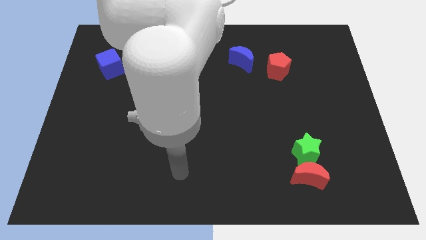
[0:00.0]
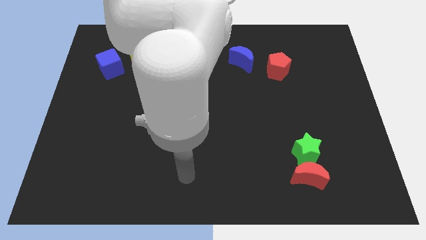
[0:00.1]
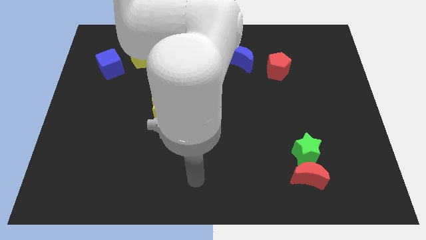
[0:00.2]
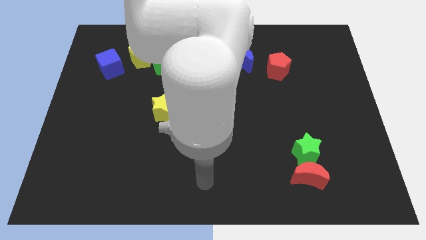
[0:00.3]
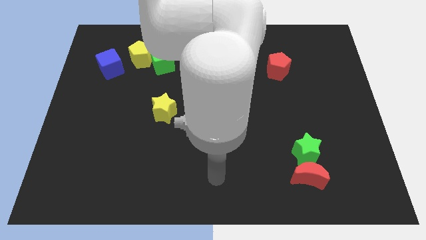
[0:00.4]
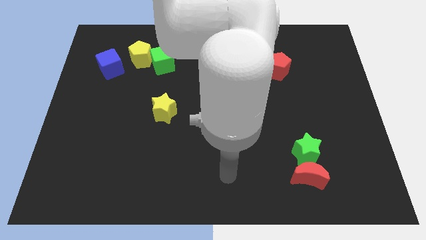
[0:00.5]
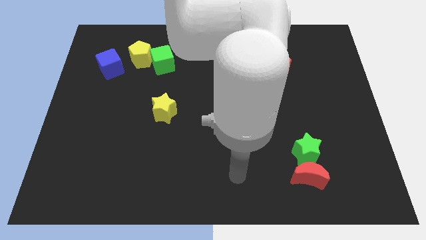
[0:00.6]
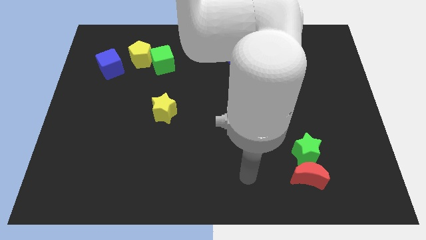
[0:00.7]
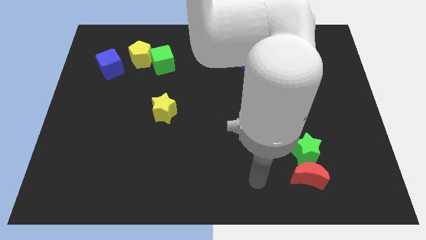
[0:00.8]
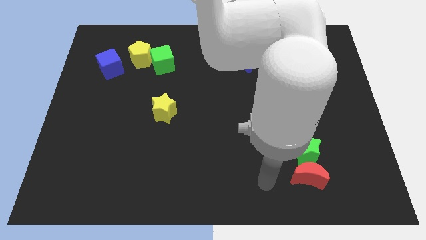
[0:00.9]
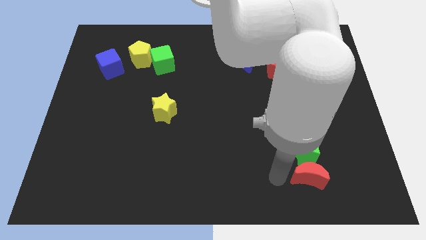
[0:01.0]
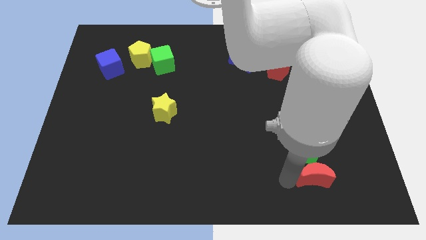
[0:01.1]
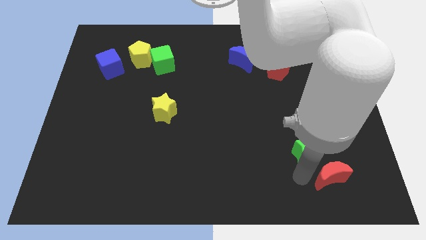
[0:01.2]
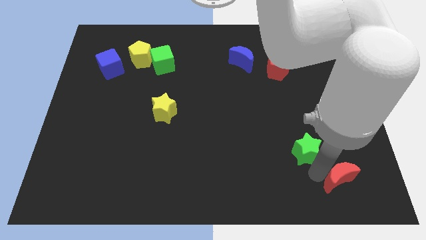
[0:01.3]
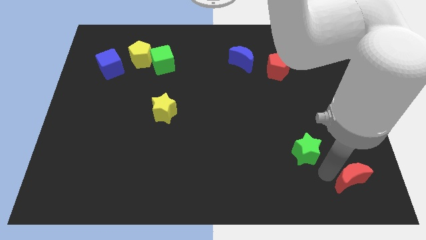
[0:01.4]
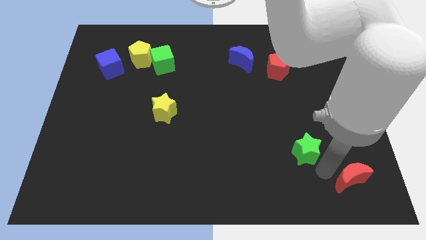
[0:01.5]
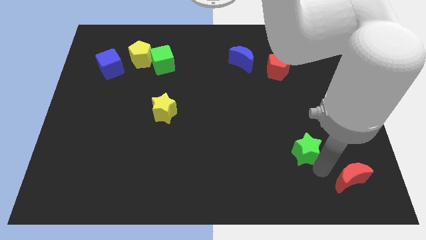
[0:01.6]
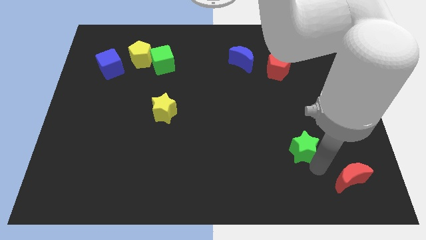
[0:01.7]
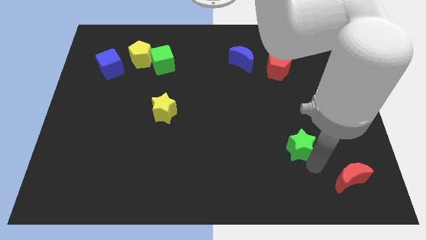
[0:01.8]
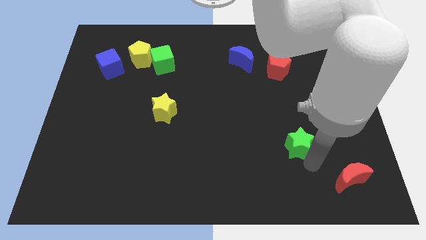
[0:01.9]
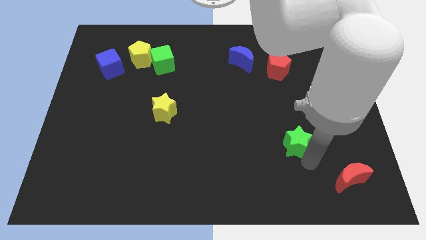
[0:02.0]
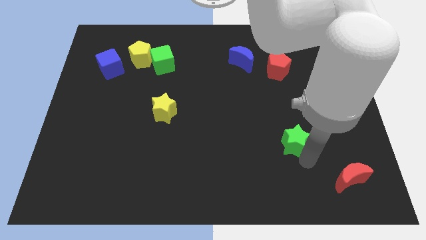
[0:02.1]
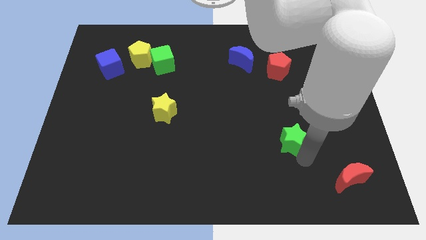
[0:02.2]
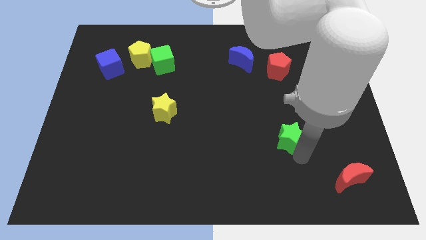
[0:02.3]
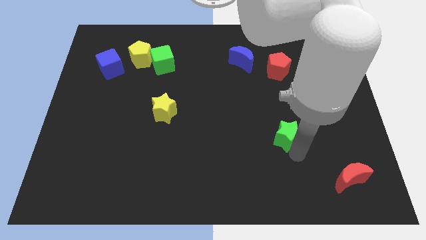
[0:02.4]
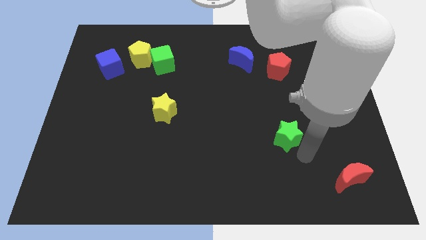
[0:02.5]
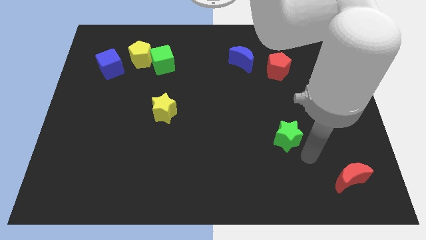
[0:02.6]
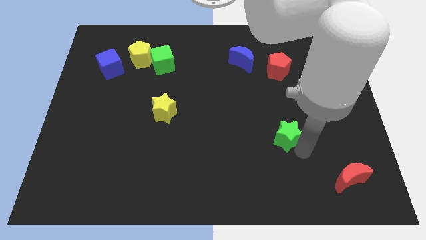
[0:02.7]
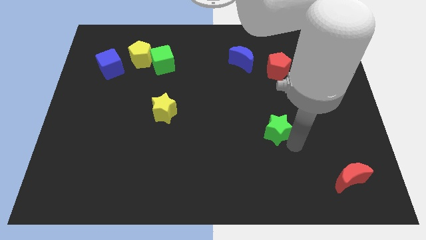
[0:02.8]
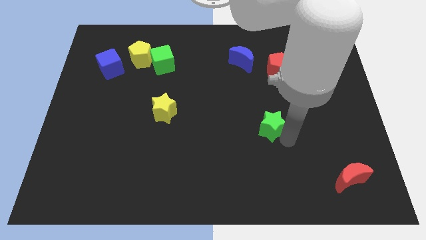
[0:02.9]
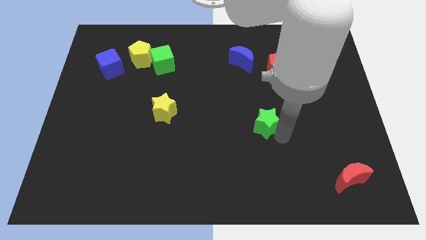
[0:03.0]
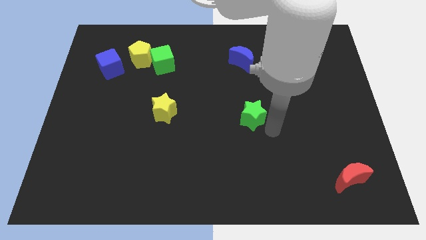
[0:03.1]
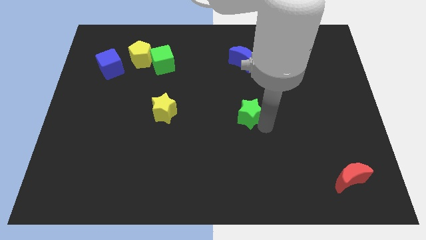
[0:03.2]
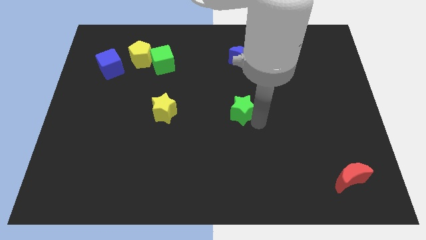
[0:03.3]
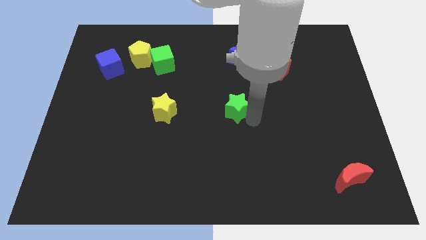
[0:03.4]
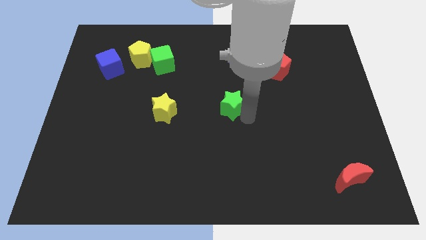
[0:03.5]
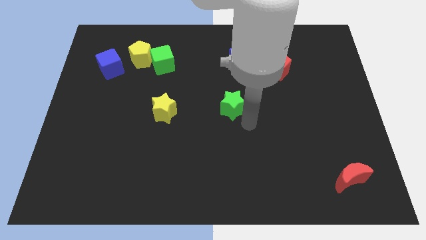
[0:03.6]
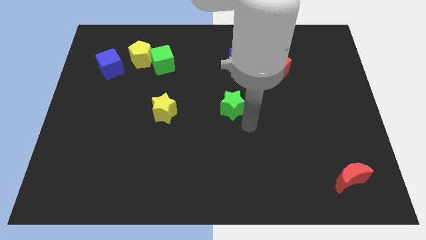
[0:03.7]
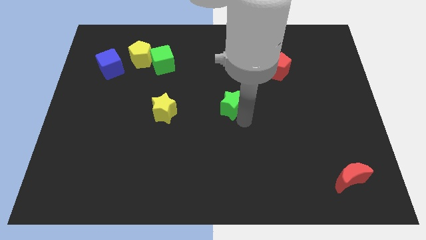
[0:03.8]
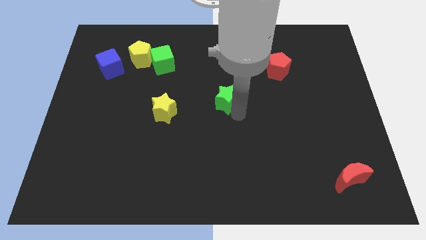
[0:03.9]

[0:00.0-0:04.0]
move the green star up and left

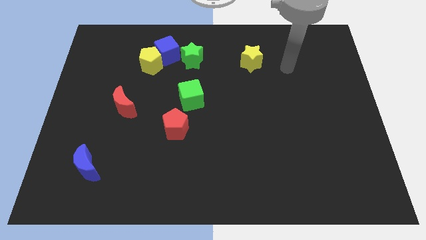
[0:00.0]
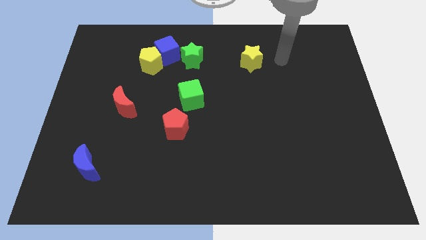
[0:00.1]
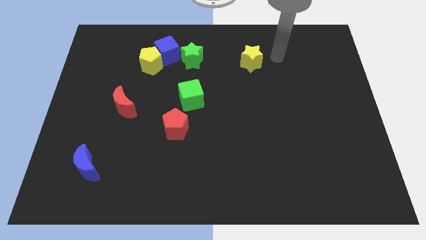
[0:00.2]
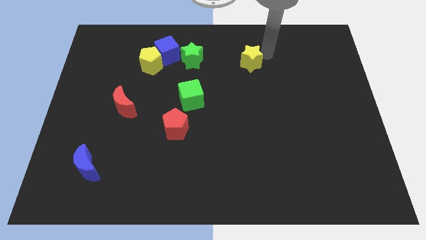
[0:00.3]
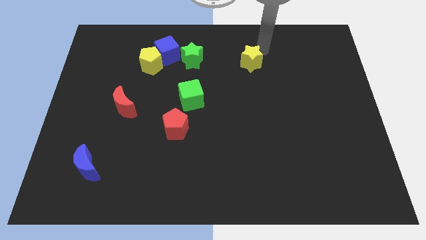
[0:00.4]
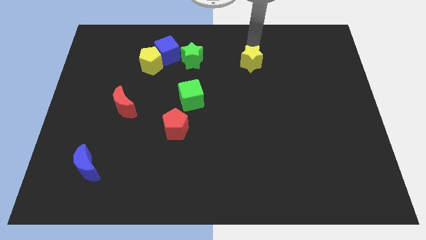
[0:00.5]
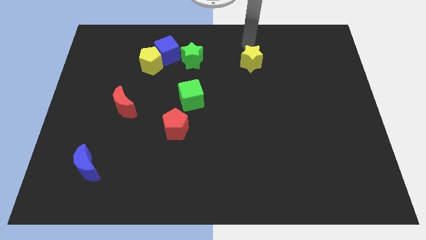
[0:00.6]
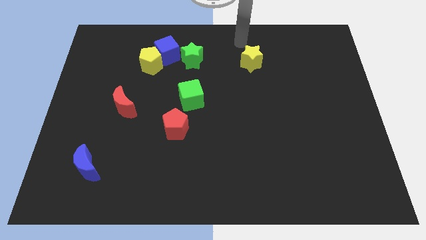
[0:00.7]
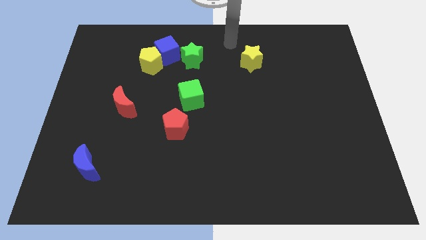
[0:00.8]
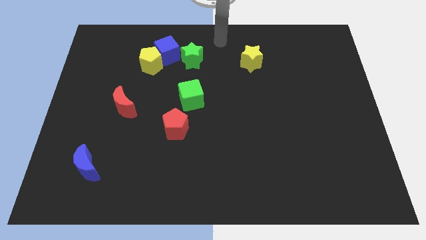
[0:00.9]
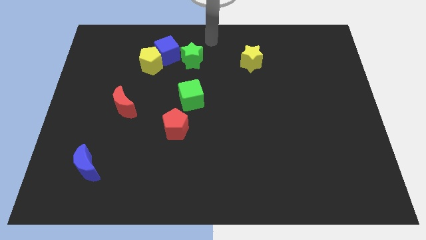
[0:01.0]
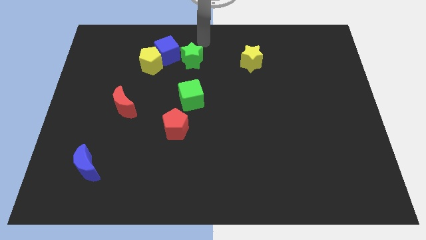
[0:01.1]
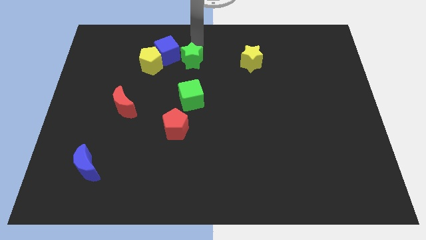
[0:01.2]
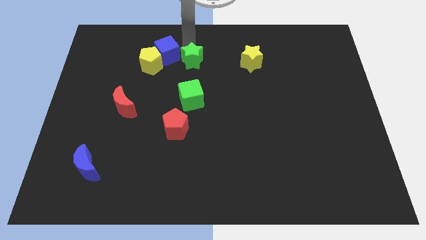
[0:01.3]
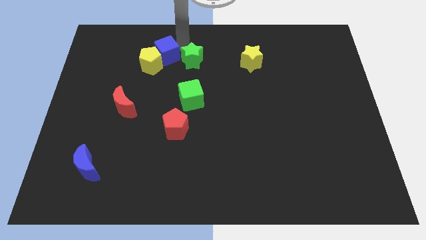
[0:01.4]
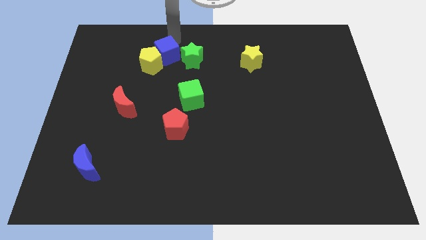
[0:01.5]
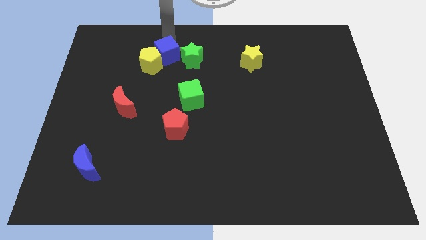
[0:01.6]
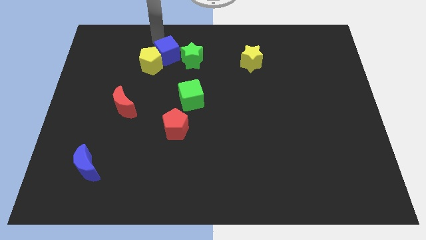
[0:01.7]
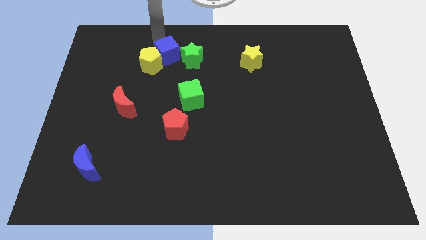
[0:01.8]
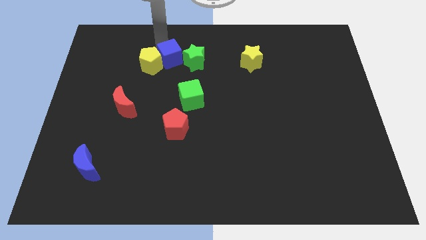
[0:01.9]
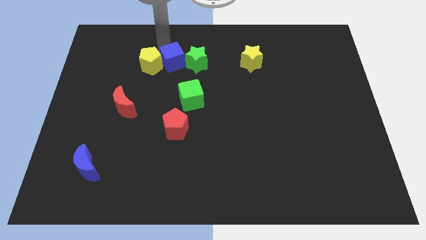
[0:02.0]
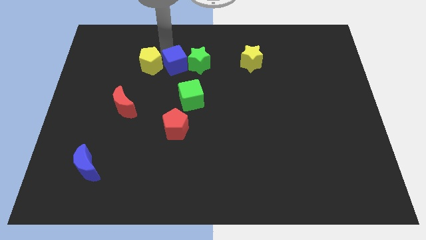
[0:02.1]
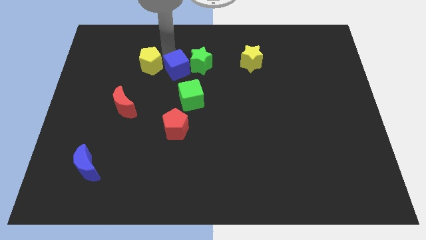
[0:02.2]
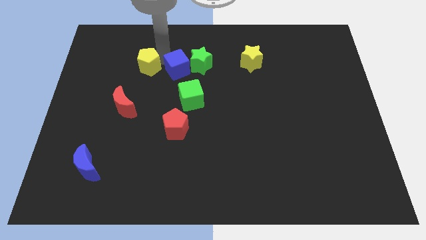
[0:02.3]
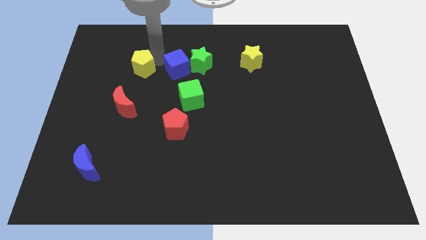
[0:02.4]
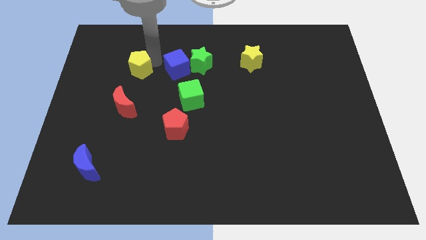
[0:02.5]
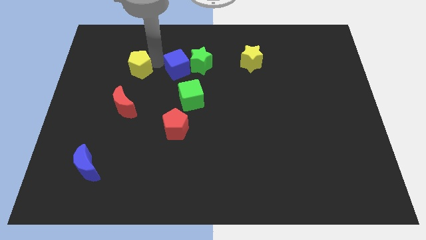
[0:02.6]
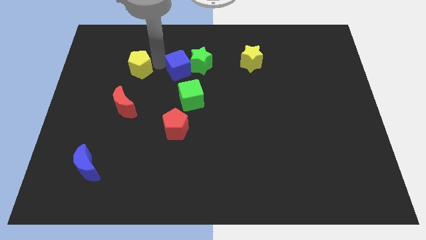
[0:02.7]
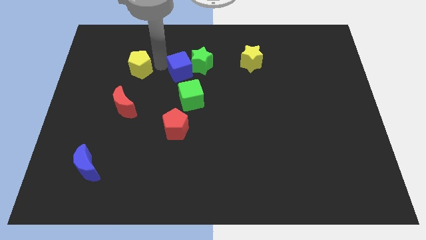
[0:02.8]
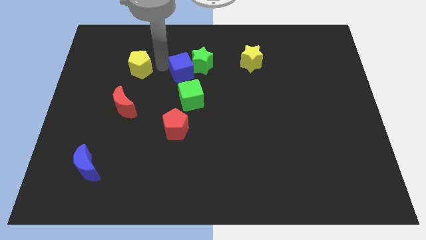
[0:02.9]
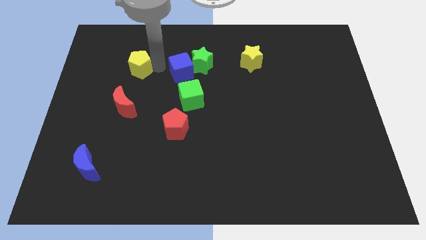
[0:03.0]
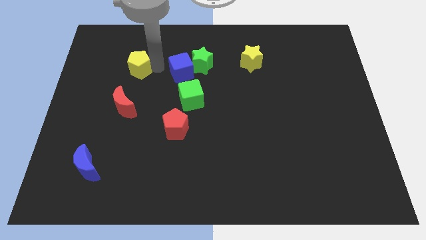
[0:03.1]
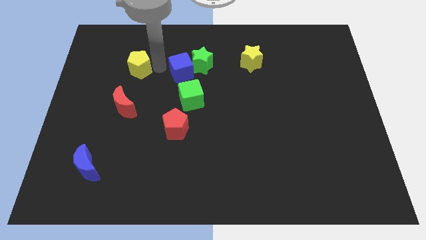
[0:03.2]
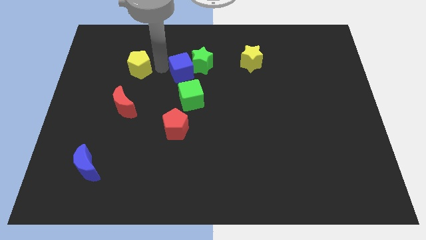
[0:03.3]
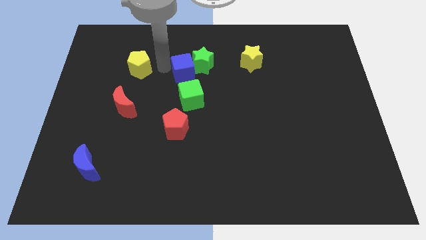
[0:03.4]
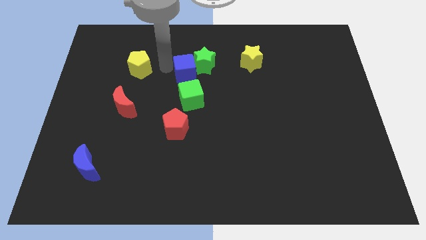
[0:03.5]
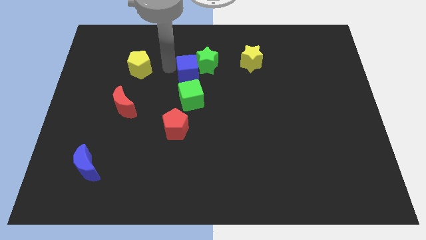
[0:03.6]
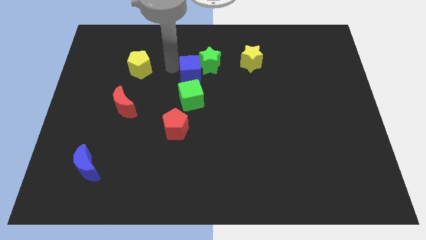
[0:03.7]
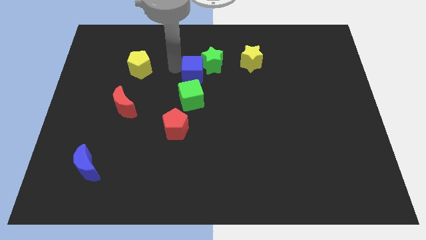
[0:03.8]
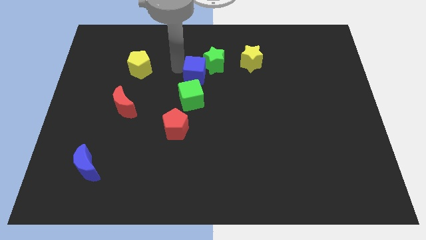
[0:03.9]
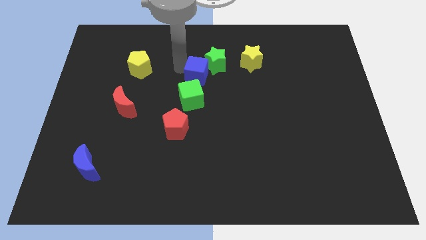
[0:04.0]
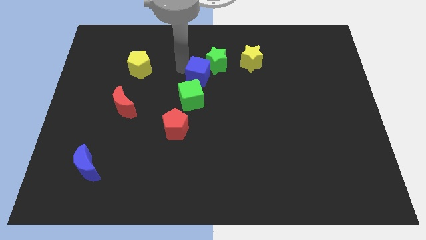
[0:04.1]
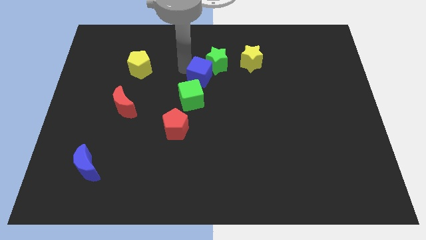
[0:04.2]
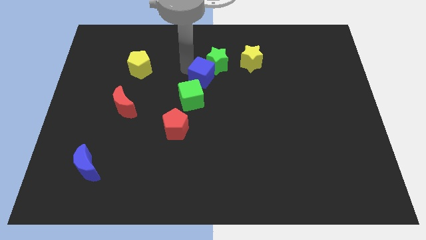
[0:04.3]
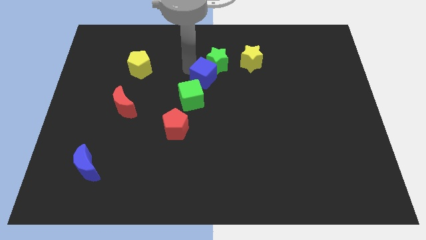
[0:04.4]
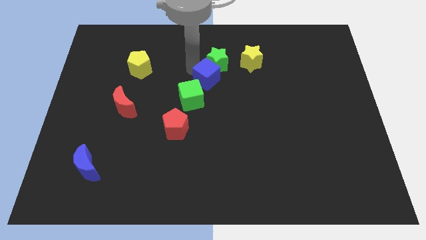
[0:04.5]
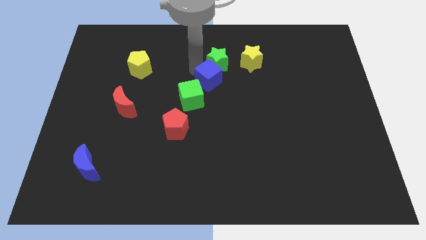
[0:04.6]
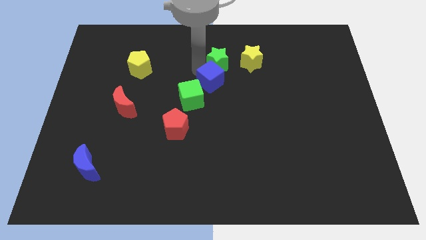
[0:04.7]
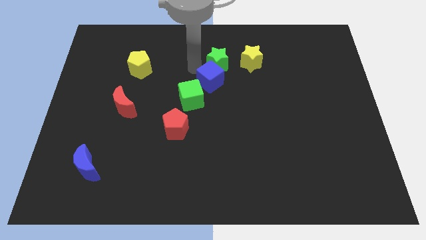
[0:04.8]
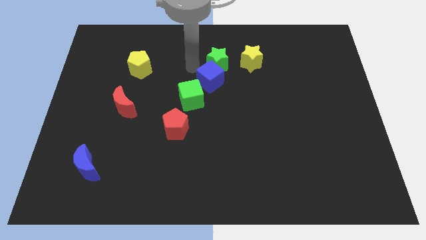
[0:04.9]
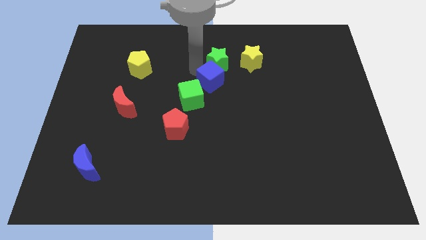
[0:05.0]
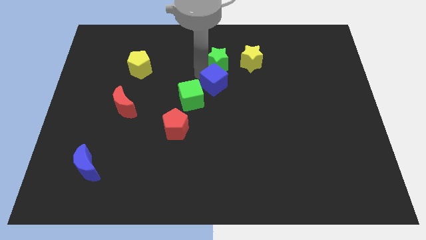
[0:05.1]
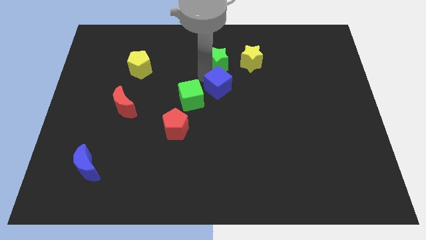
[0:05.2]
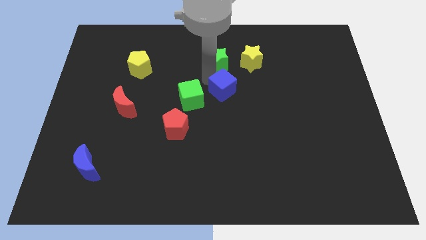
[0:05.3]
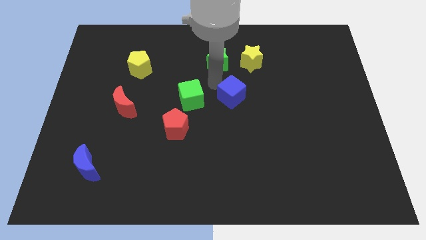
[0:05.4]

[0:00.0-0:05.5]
push the blue cube diagonally downwards and to the right
